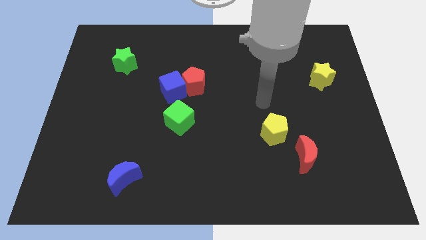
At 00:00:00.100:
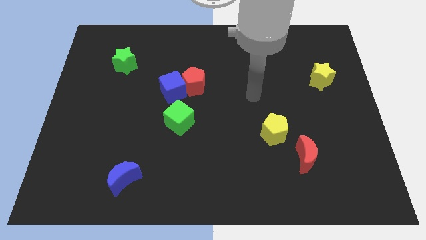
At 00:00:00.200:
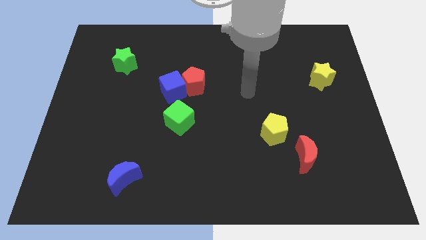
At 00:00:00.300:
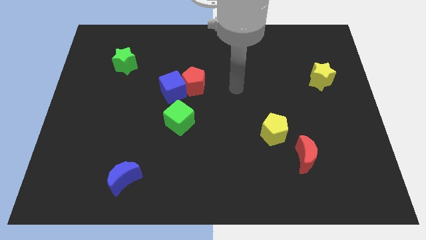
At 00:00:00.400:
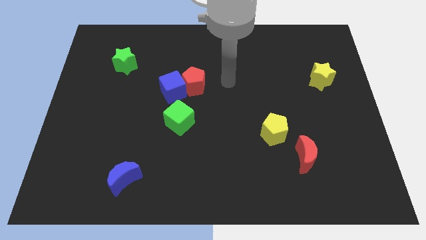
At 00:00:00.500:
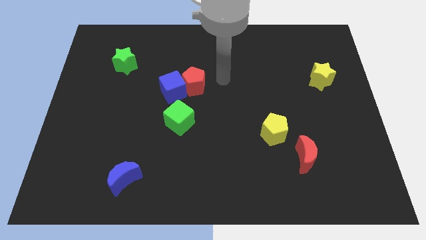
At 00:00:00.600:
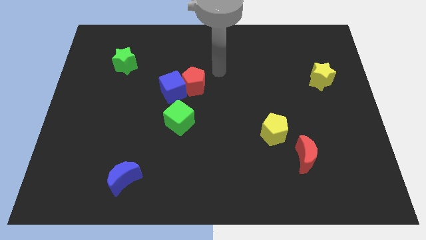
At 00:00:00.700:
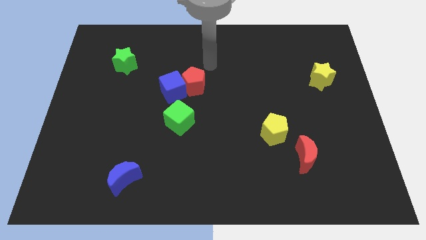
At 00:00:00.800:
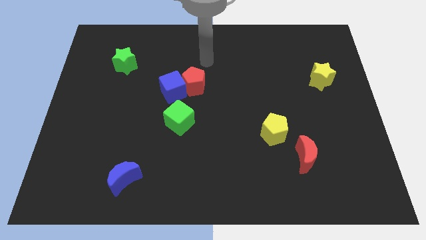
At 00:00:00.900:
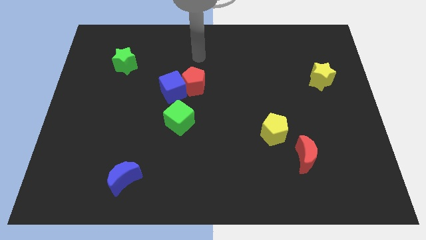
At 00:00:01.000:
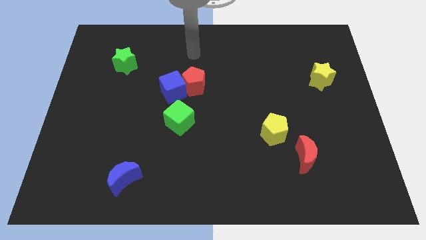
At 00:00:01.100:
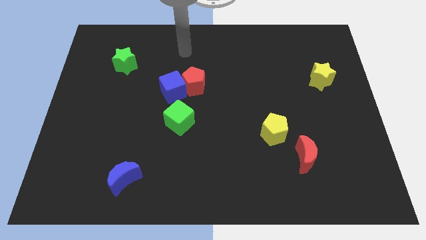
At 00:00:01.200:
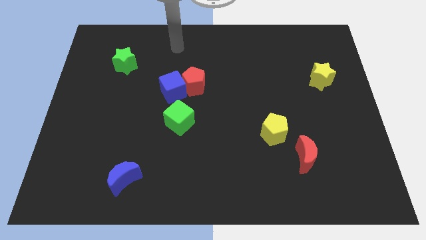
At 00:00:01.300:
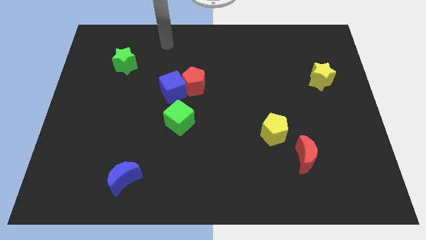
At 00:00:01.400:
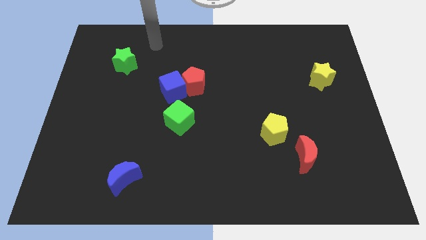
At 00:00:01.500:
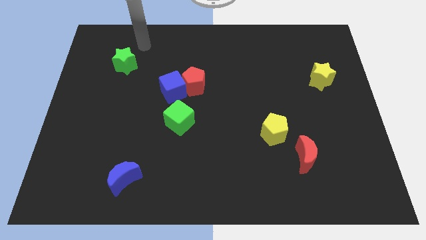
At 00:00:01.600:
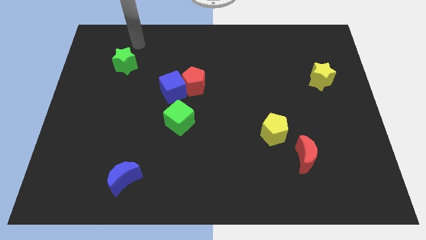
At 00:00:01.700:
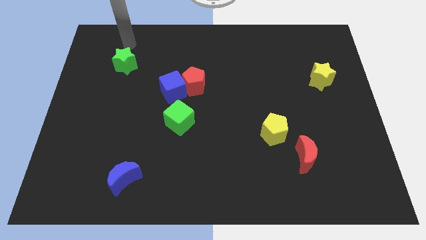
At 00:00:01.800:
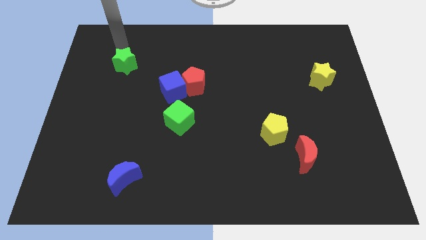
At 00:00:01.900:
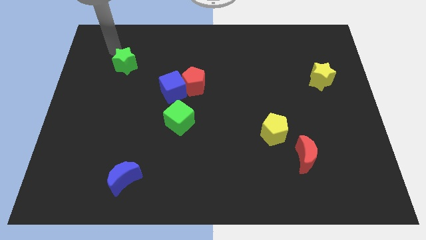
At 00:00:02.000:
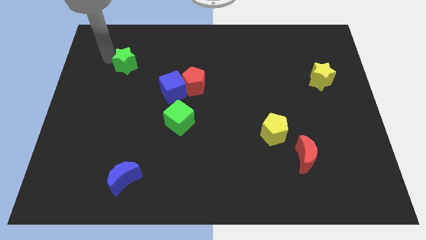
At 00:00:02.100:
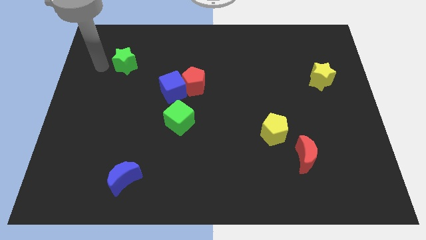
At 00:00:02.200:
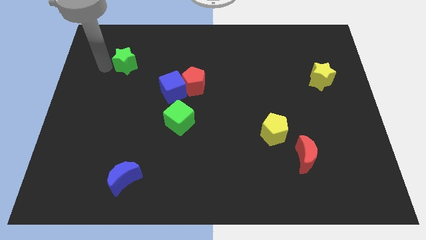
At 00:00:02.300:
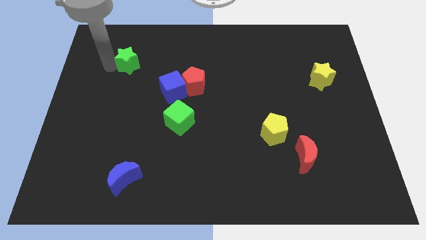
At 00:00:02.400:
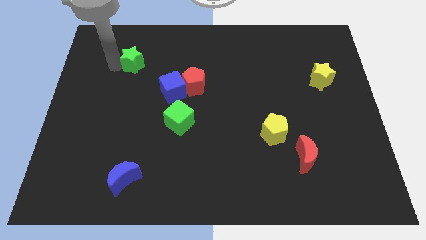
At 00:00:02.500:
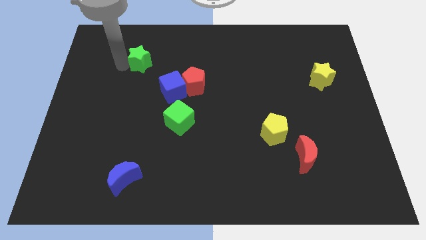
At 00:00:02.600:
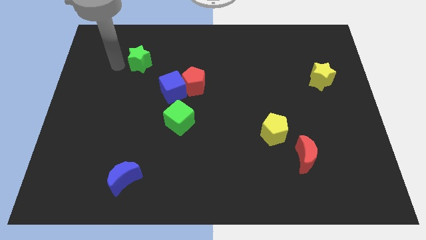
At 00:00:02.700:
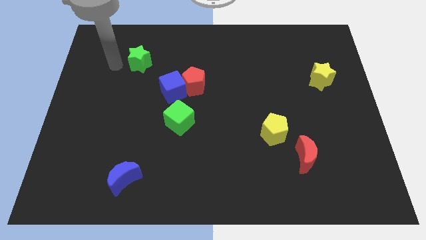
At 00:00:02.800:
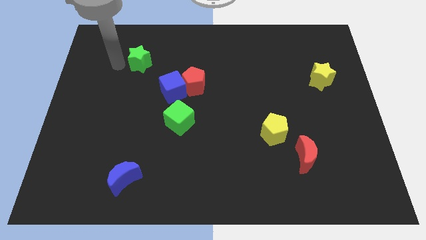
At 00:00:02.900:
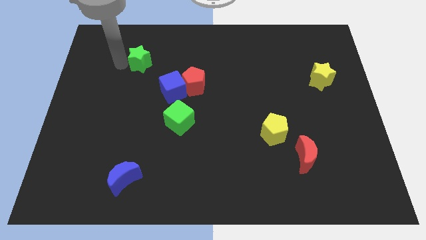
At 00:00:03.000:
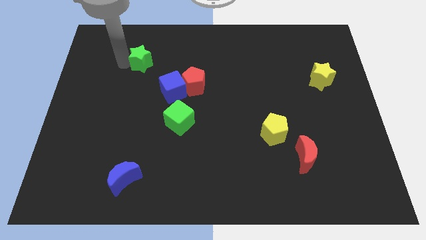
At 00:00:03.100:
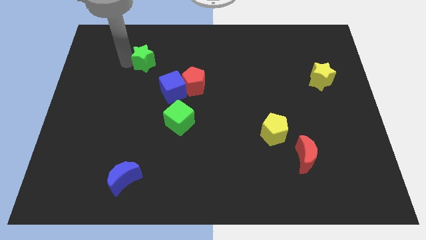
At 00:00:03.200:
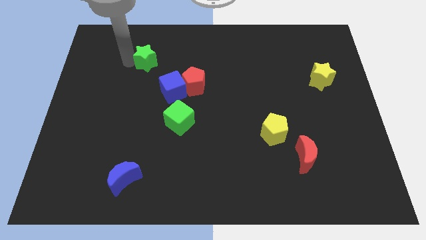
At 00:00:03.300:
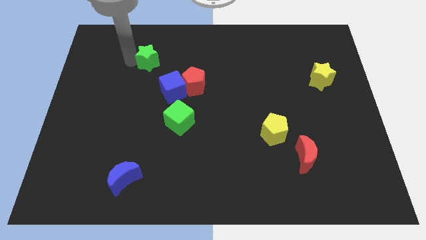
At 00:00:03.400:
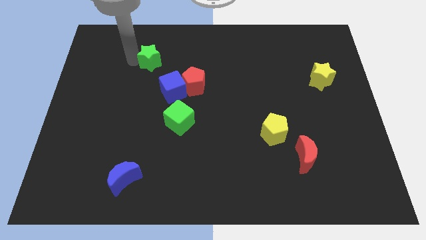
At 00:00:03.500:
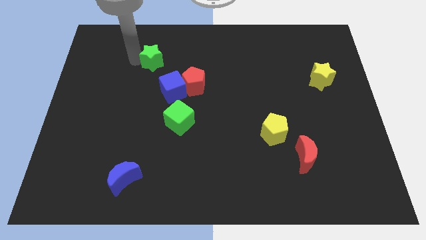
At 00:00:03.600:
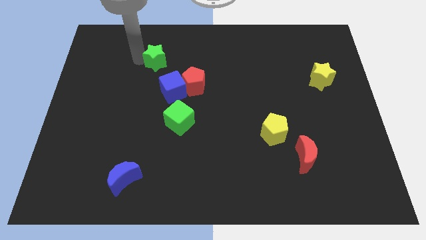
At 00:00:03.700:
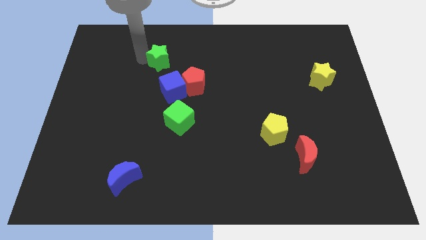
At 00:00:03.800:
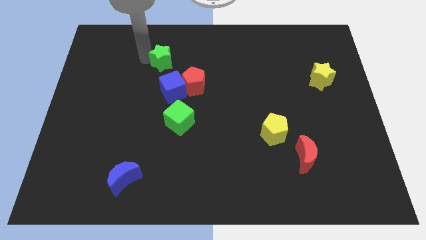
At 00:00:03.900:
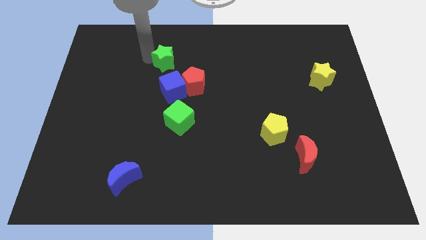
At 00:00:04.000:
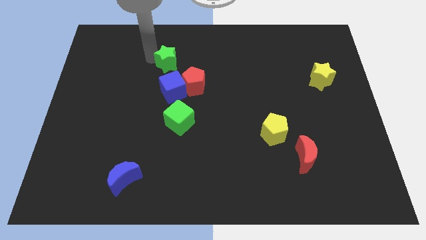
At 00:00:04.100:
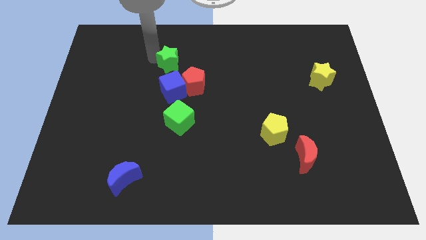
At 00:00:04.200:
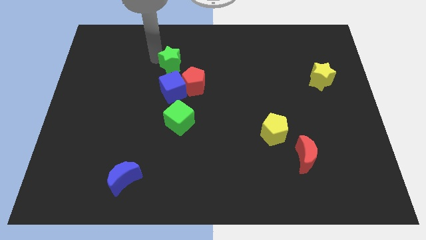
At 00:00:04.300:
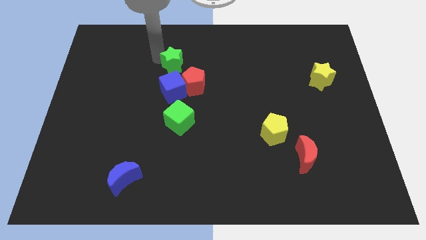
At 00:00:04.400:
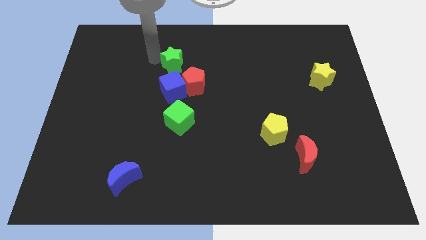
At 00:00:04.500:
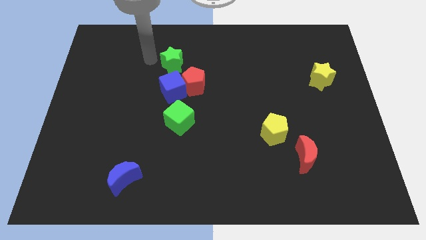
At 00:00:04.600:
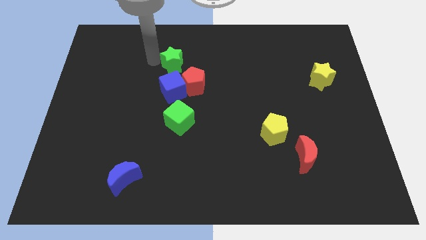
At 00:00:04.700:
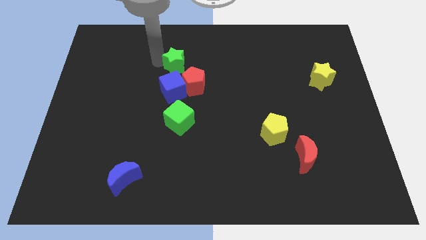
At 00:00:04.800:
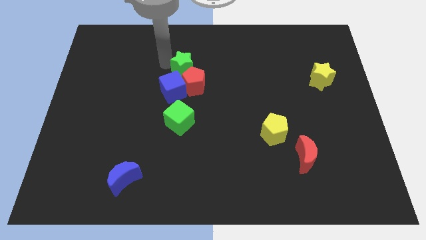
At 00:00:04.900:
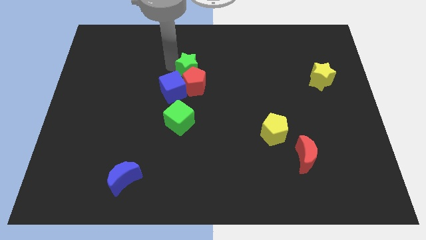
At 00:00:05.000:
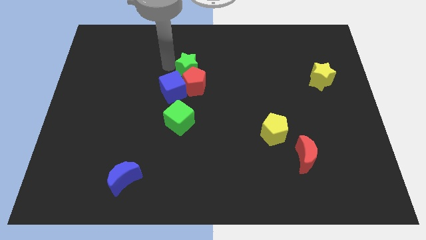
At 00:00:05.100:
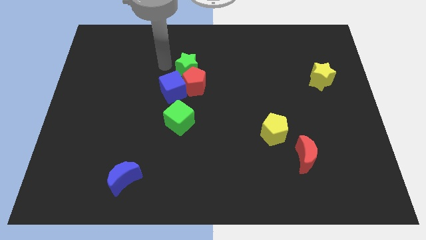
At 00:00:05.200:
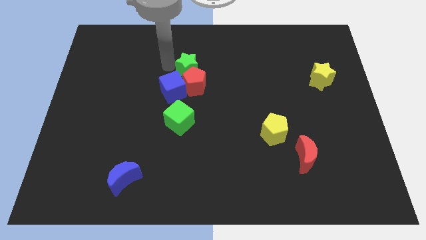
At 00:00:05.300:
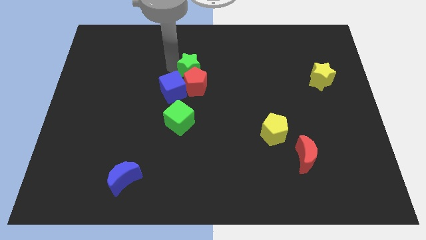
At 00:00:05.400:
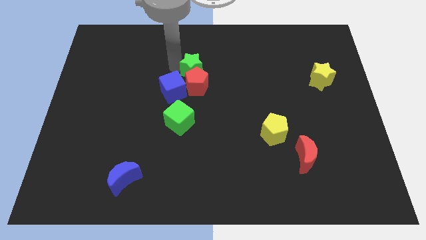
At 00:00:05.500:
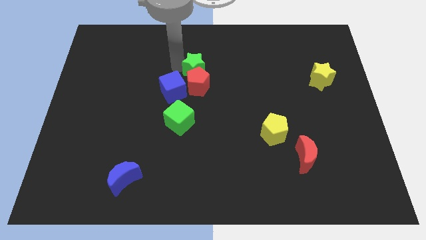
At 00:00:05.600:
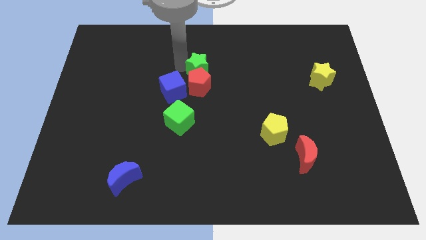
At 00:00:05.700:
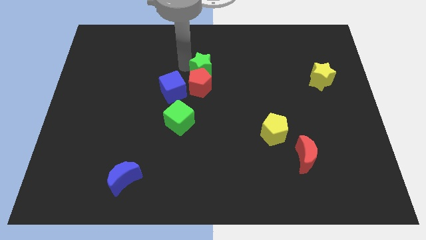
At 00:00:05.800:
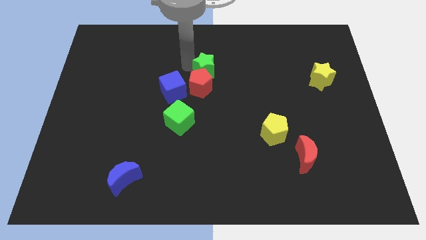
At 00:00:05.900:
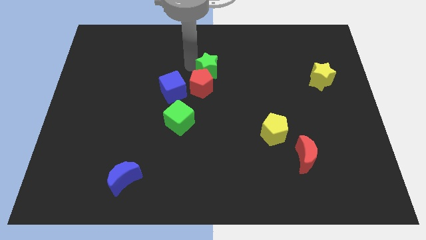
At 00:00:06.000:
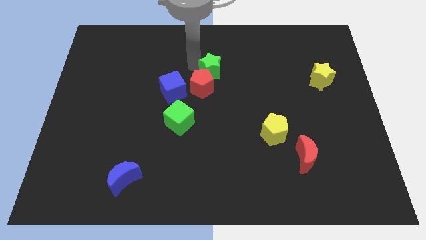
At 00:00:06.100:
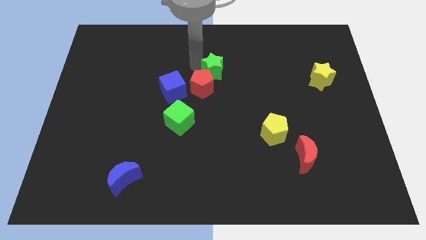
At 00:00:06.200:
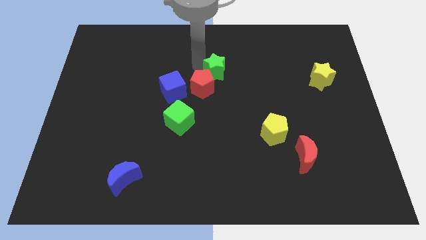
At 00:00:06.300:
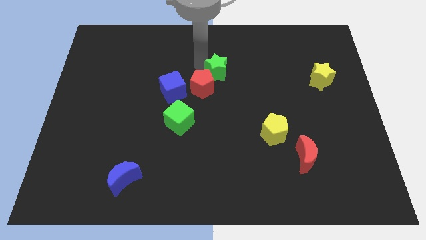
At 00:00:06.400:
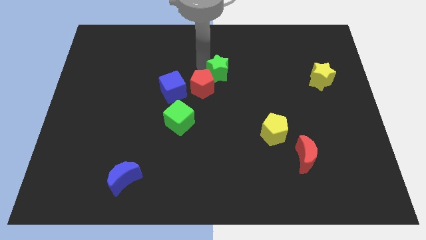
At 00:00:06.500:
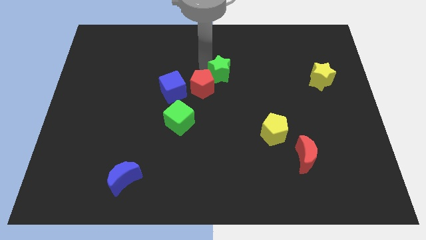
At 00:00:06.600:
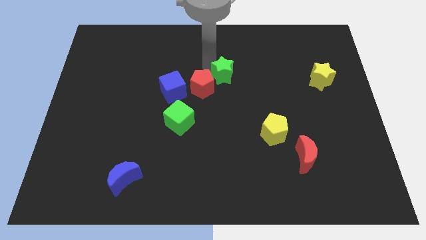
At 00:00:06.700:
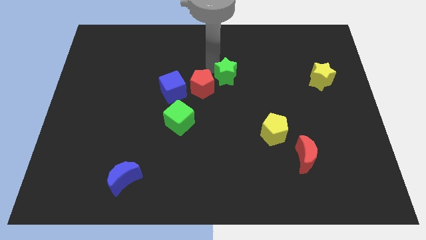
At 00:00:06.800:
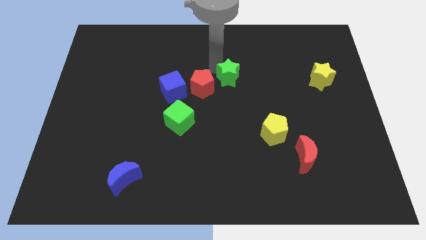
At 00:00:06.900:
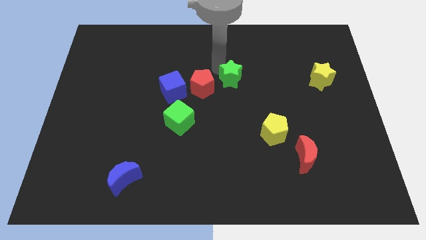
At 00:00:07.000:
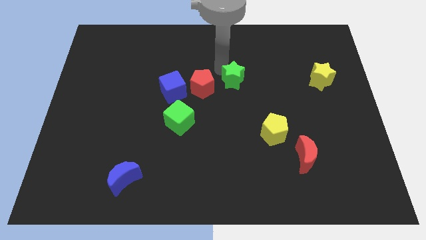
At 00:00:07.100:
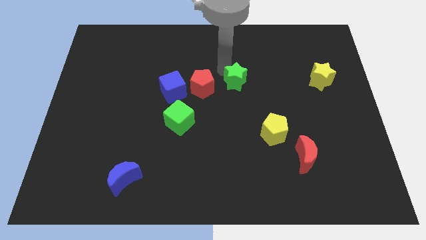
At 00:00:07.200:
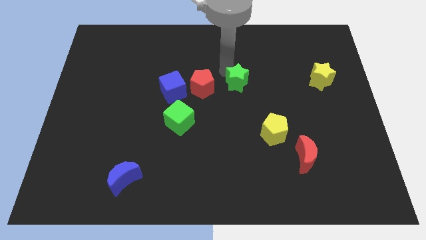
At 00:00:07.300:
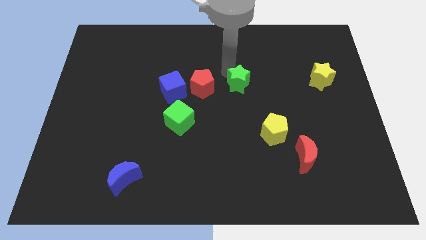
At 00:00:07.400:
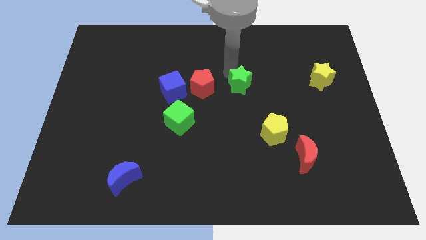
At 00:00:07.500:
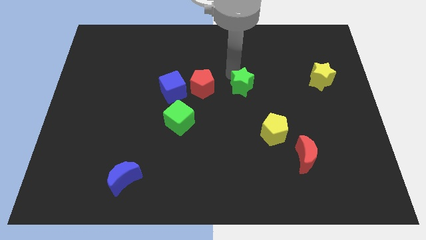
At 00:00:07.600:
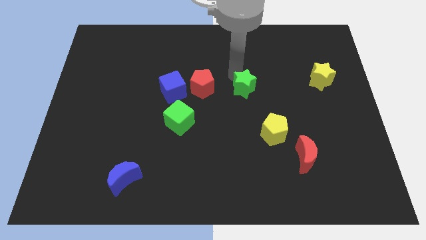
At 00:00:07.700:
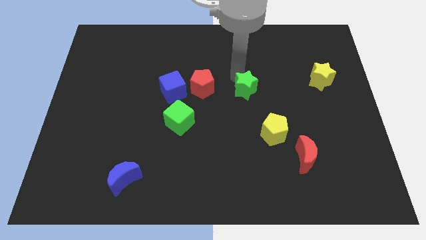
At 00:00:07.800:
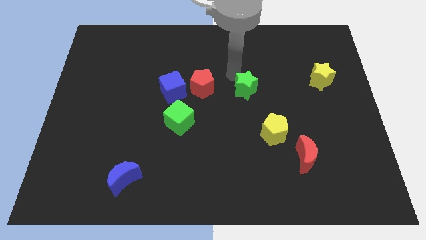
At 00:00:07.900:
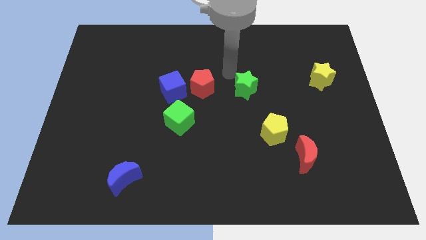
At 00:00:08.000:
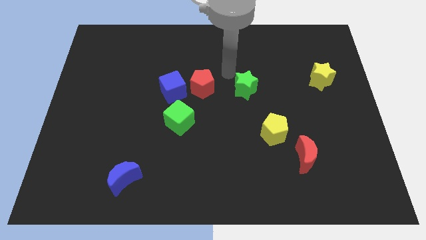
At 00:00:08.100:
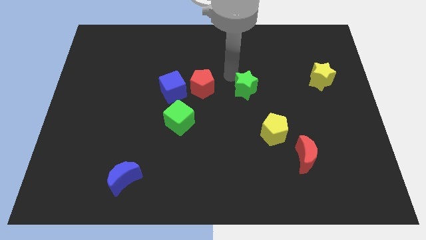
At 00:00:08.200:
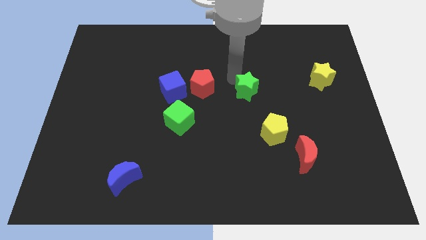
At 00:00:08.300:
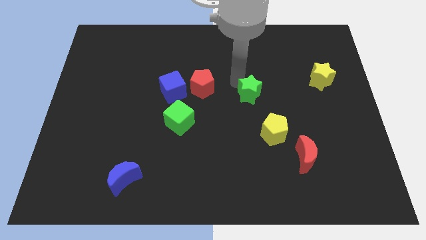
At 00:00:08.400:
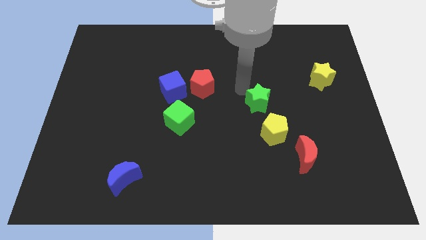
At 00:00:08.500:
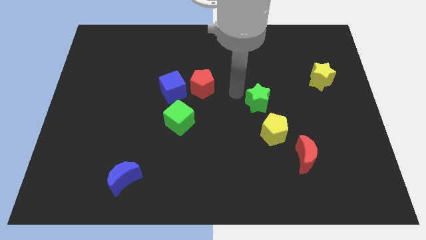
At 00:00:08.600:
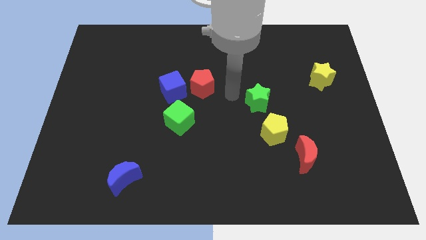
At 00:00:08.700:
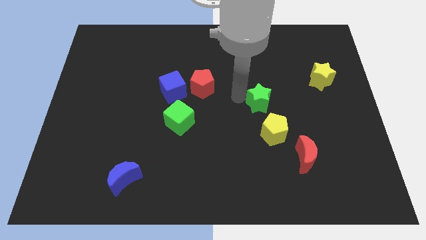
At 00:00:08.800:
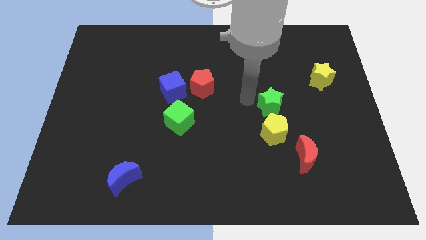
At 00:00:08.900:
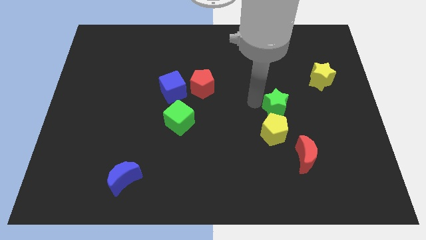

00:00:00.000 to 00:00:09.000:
put the green star to the top right of the yellow pentagon
